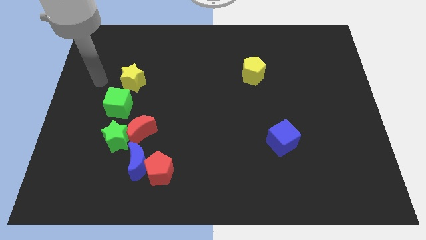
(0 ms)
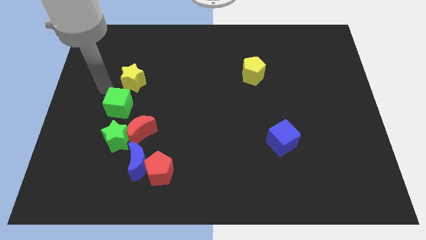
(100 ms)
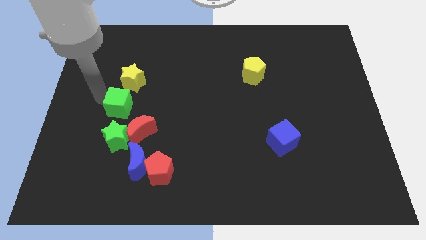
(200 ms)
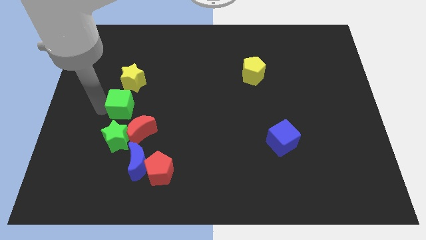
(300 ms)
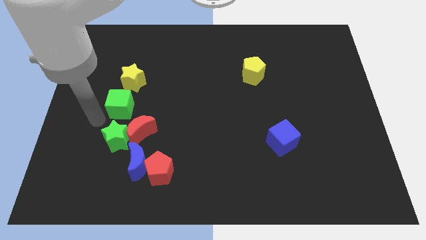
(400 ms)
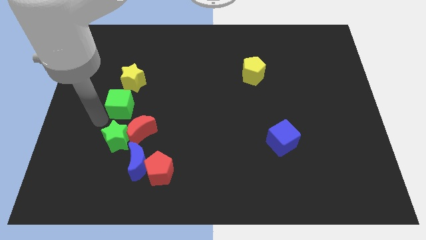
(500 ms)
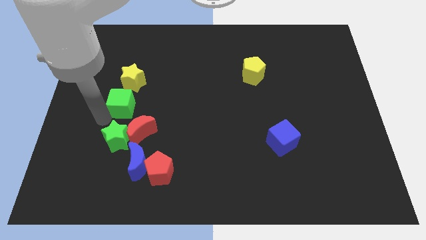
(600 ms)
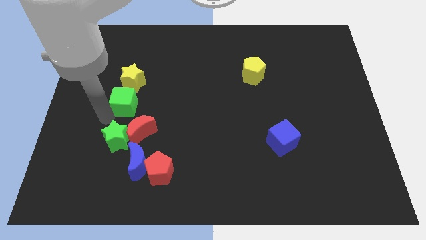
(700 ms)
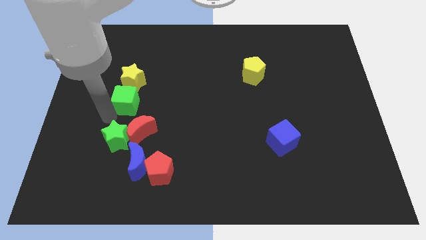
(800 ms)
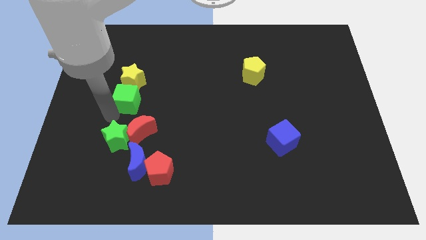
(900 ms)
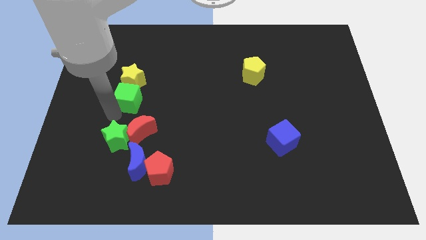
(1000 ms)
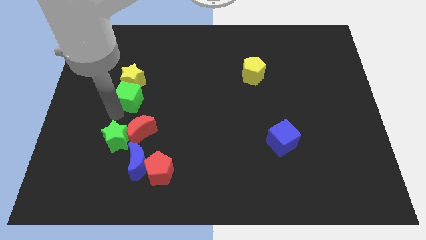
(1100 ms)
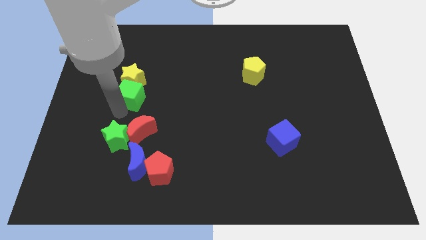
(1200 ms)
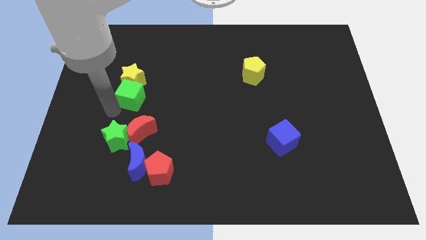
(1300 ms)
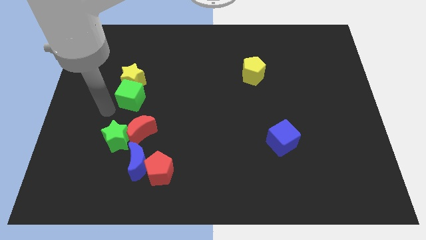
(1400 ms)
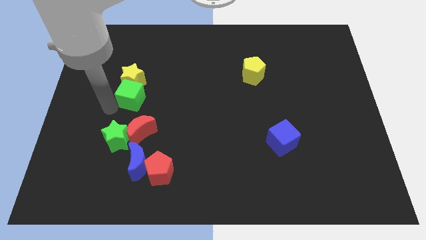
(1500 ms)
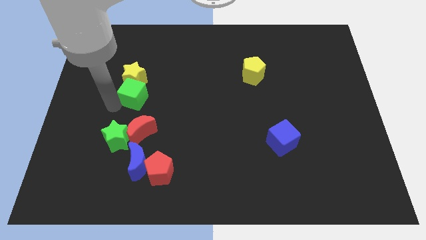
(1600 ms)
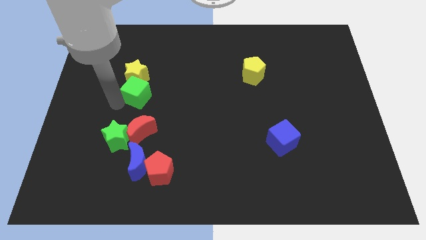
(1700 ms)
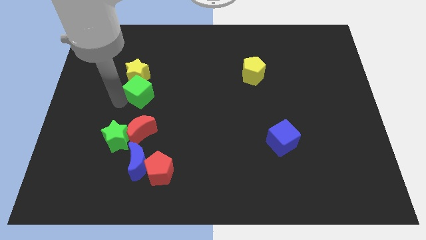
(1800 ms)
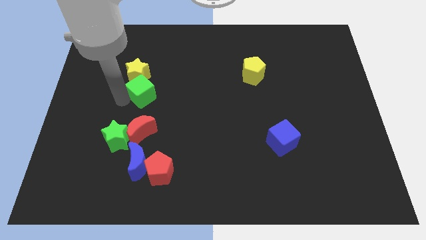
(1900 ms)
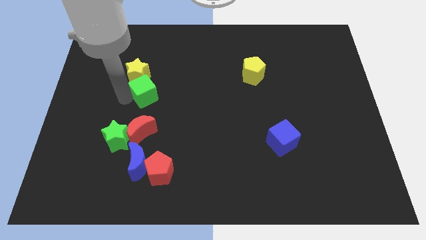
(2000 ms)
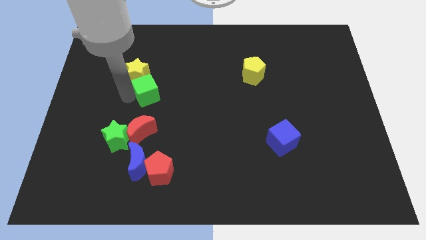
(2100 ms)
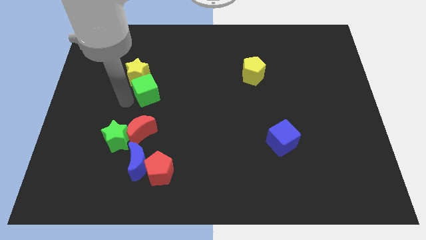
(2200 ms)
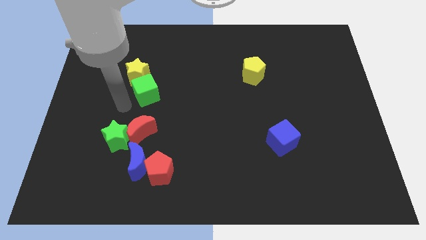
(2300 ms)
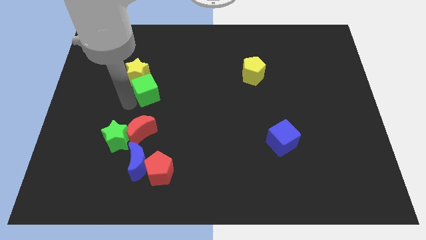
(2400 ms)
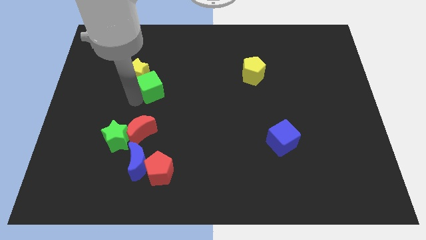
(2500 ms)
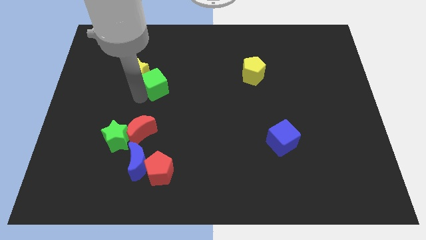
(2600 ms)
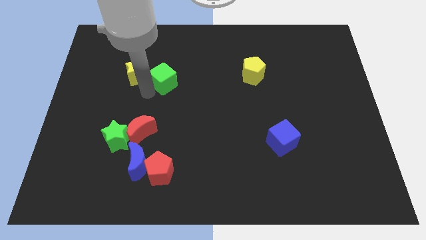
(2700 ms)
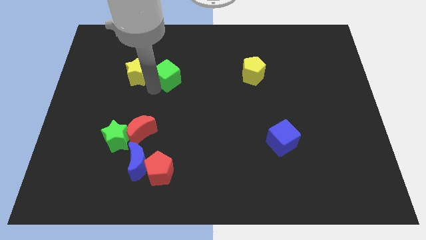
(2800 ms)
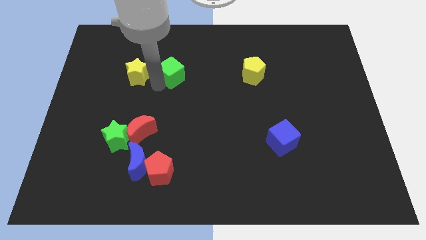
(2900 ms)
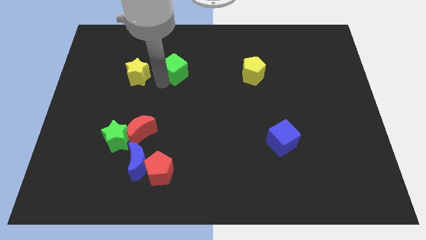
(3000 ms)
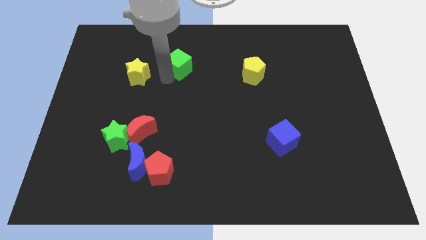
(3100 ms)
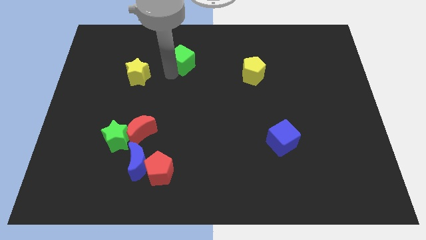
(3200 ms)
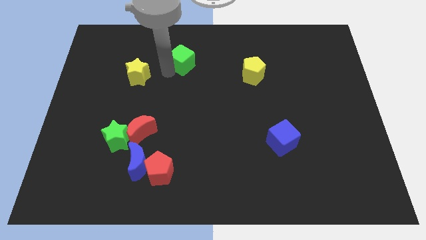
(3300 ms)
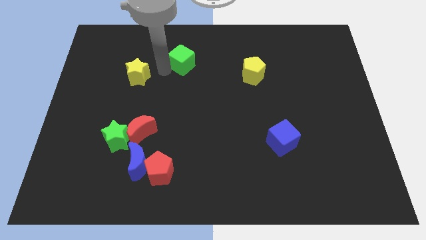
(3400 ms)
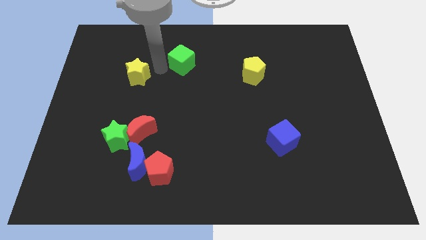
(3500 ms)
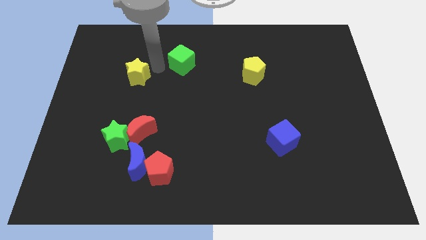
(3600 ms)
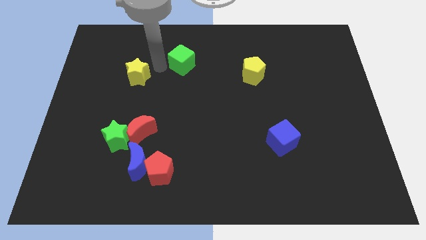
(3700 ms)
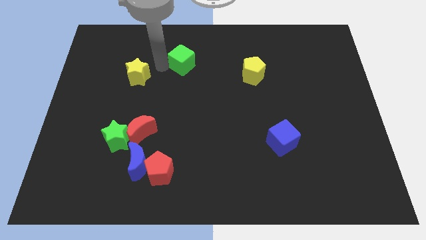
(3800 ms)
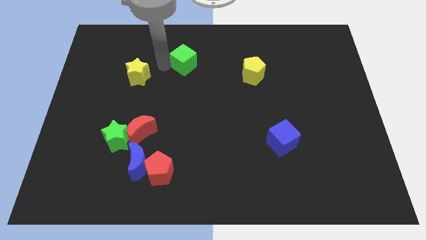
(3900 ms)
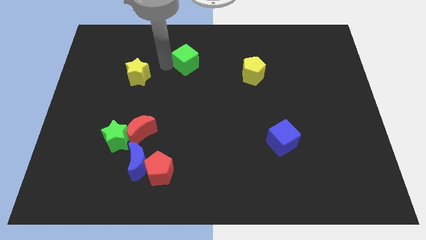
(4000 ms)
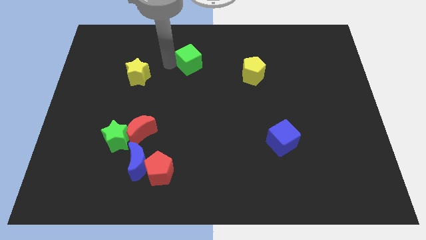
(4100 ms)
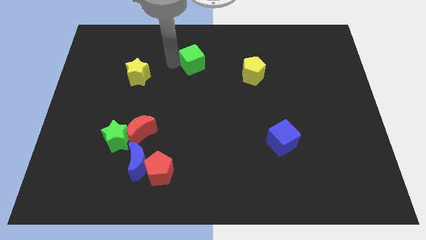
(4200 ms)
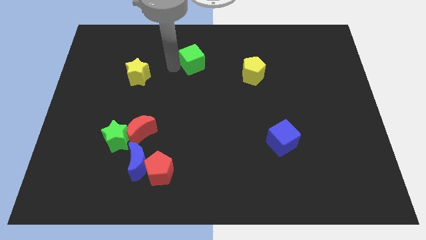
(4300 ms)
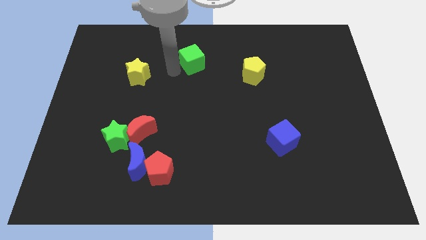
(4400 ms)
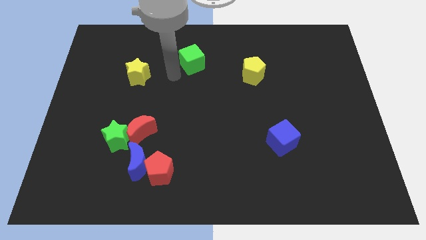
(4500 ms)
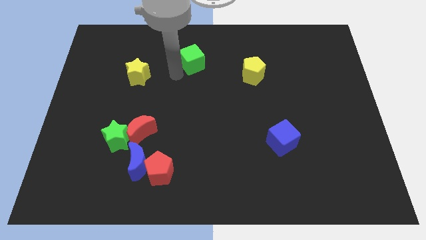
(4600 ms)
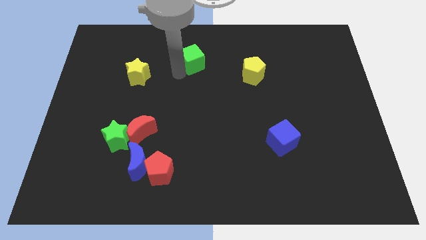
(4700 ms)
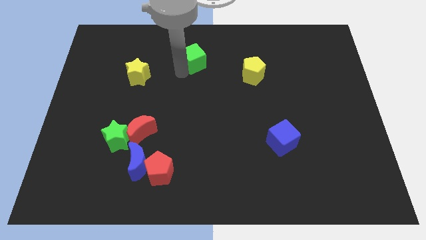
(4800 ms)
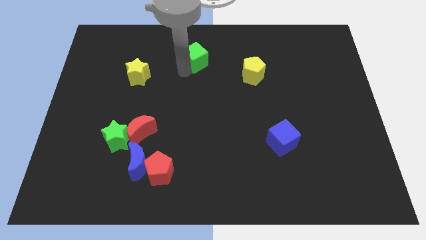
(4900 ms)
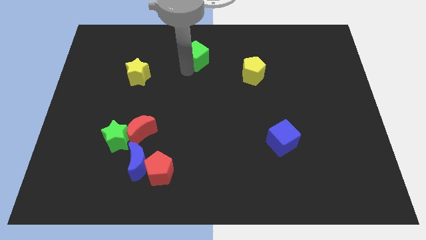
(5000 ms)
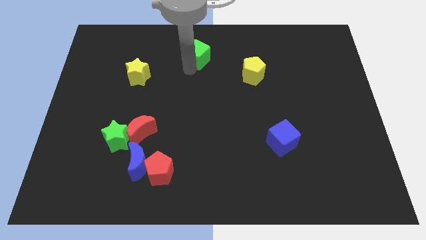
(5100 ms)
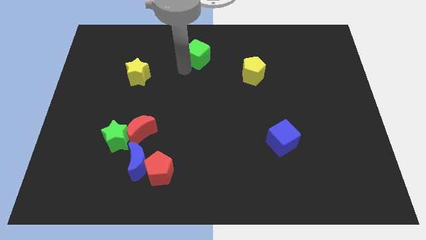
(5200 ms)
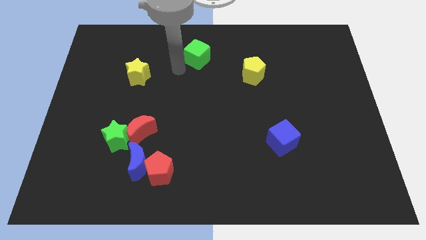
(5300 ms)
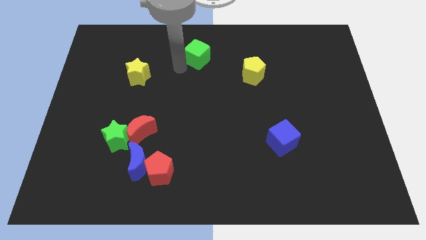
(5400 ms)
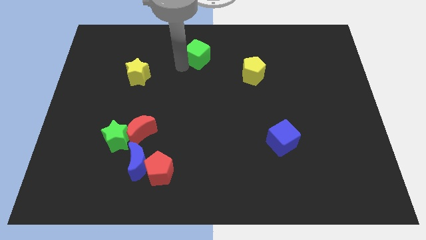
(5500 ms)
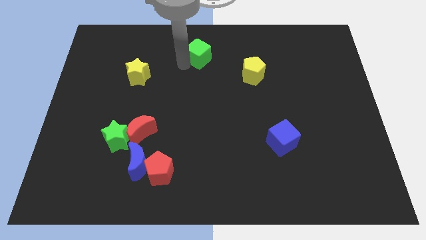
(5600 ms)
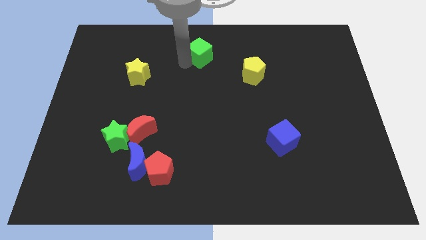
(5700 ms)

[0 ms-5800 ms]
put the green cube to the top

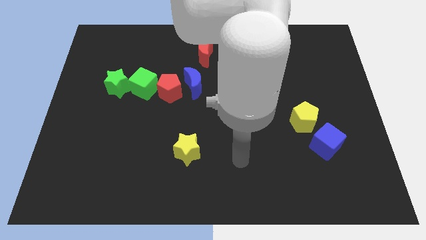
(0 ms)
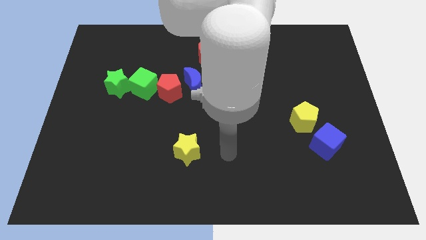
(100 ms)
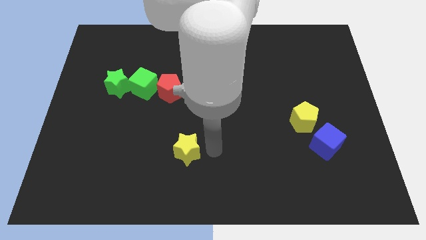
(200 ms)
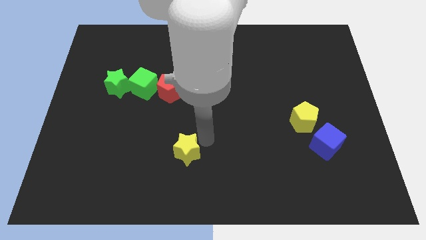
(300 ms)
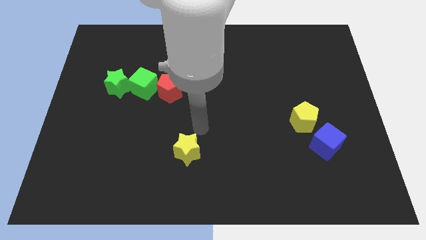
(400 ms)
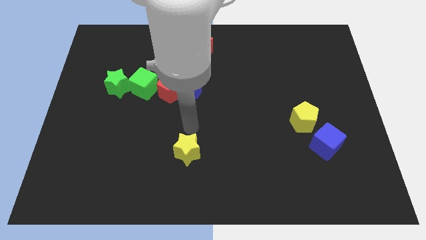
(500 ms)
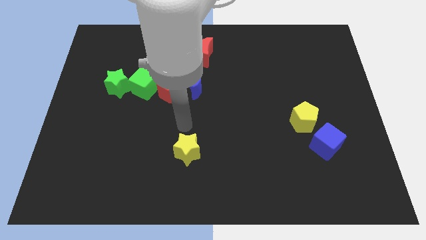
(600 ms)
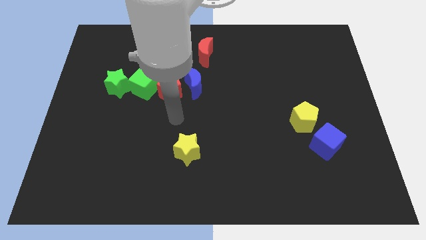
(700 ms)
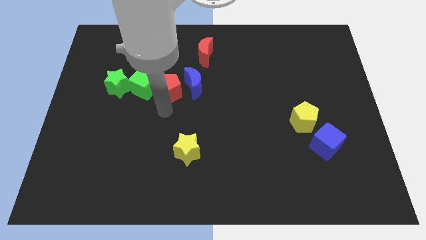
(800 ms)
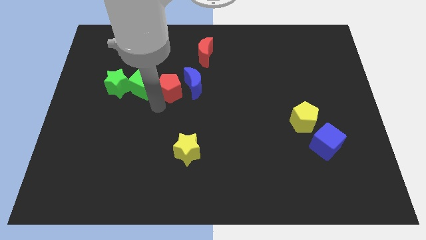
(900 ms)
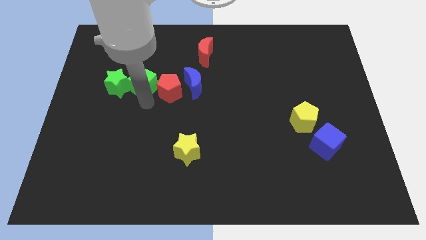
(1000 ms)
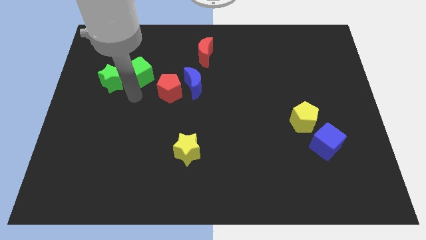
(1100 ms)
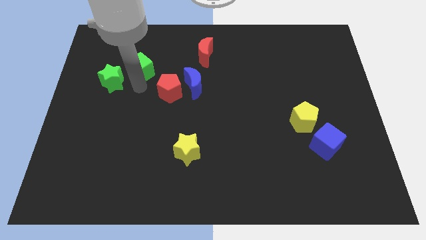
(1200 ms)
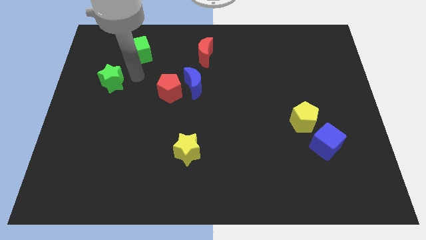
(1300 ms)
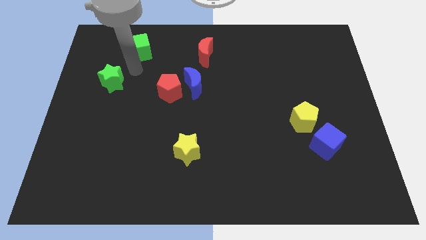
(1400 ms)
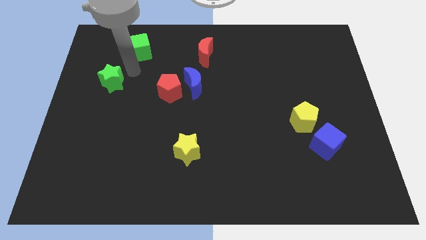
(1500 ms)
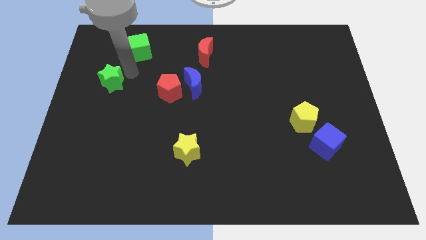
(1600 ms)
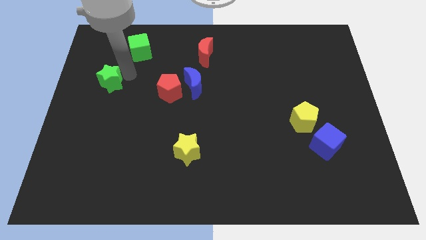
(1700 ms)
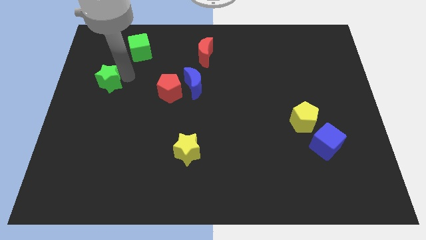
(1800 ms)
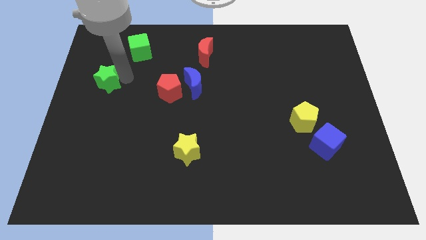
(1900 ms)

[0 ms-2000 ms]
push the green star to the left side of the board
